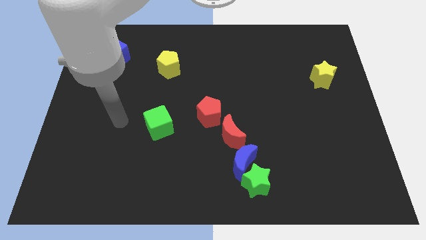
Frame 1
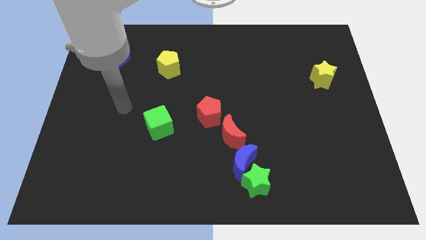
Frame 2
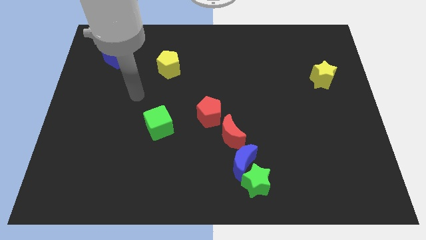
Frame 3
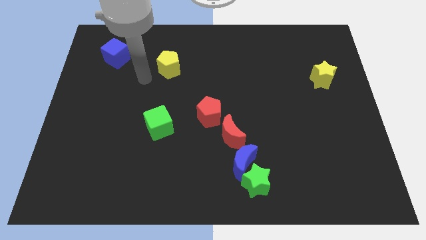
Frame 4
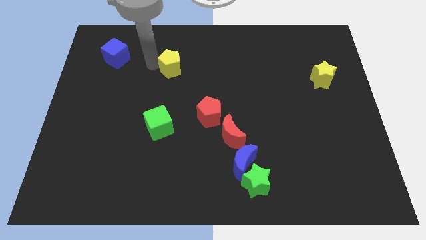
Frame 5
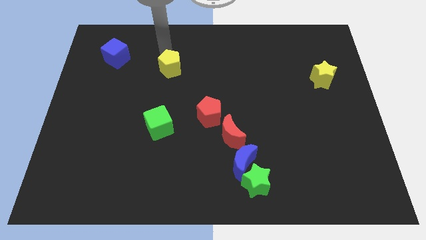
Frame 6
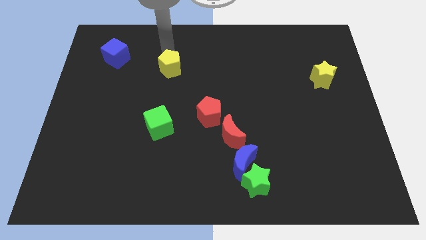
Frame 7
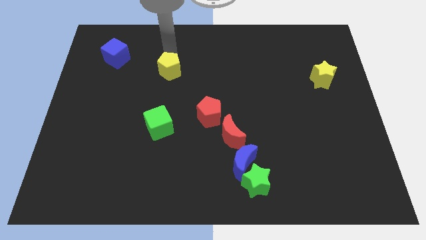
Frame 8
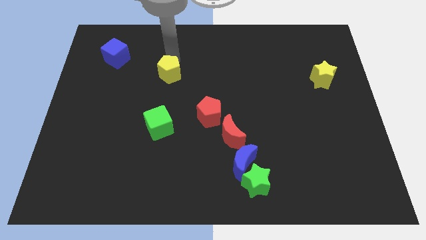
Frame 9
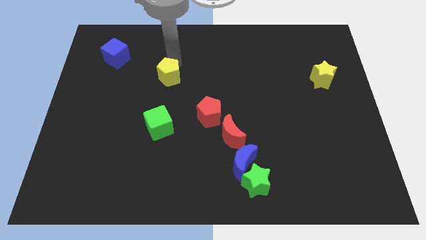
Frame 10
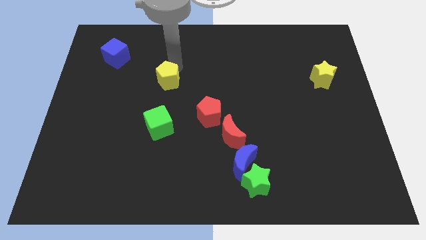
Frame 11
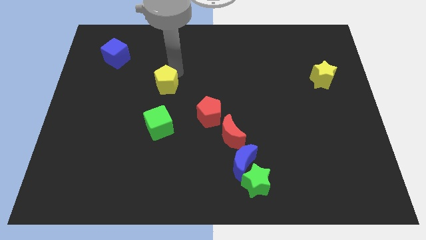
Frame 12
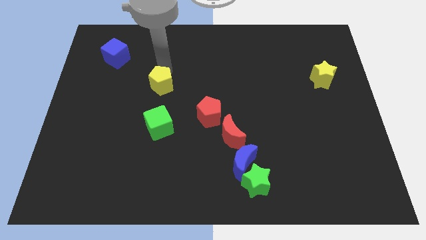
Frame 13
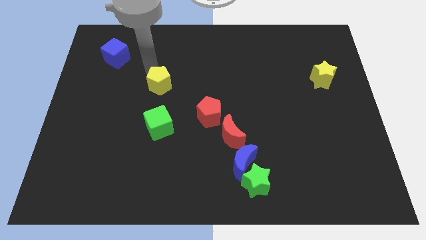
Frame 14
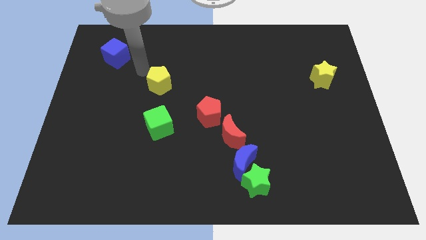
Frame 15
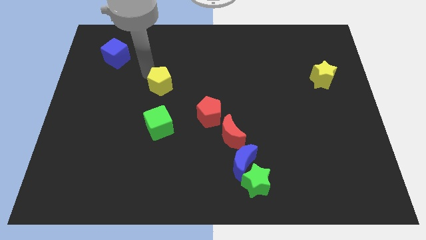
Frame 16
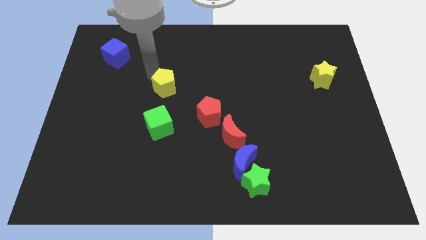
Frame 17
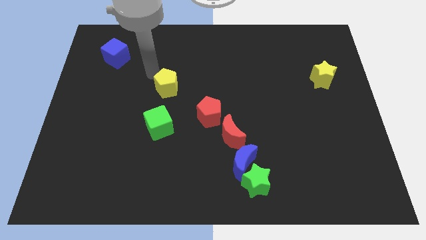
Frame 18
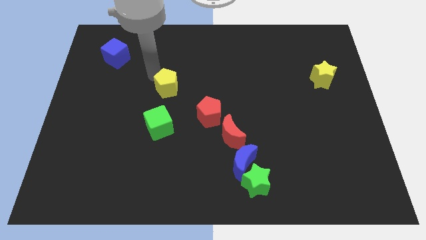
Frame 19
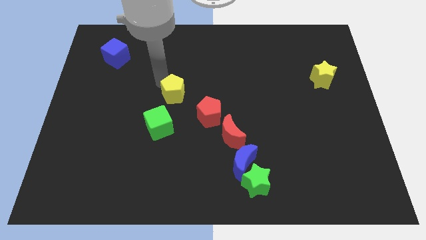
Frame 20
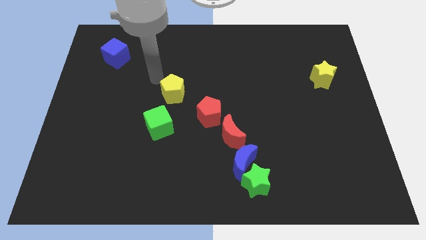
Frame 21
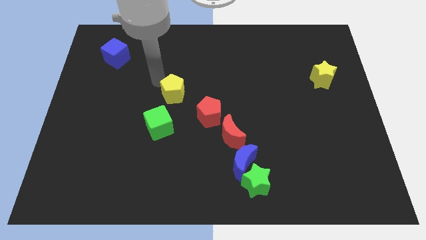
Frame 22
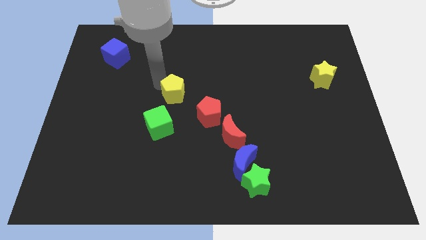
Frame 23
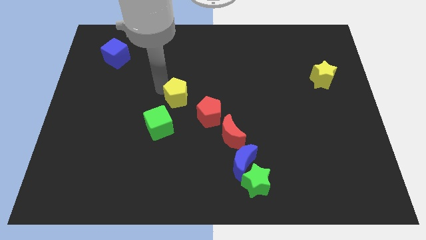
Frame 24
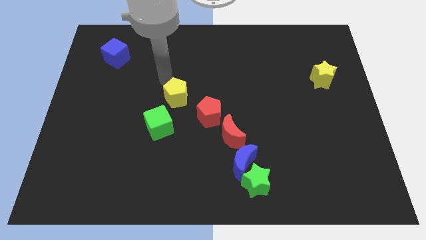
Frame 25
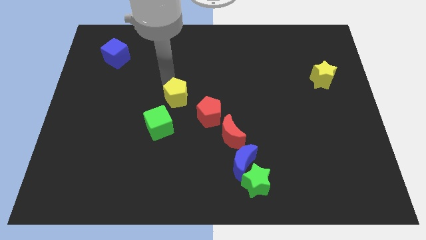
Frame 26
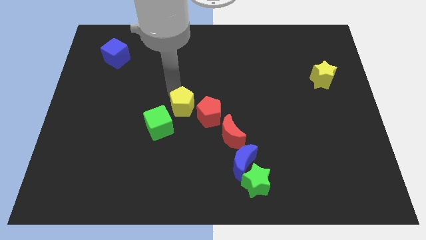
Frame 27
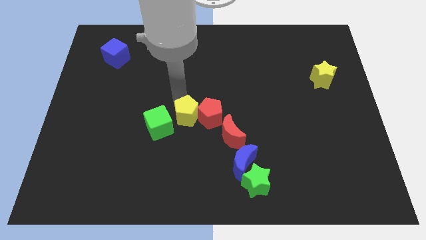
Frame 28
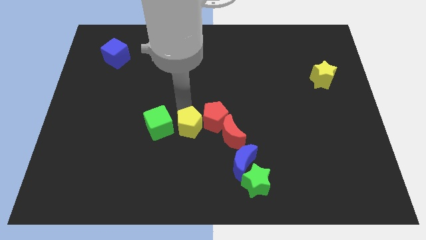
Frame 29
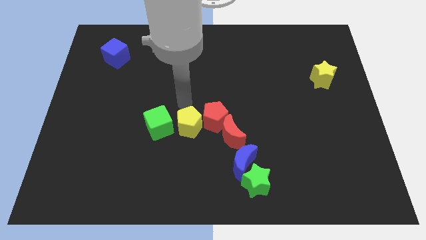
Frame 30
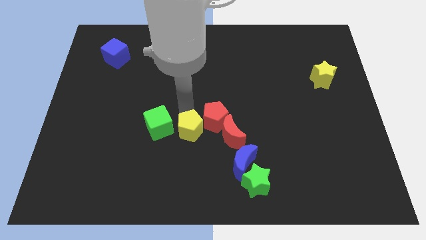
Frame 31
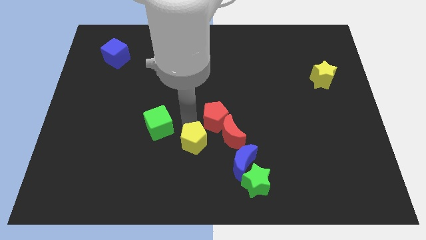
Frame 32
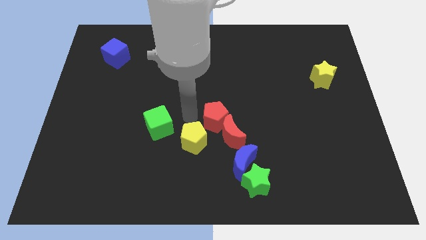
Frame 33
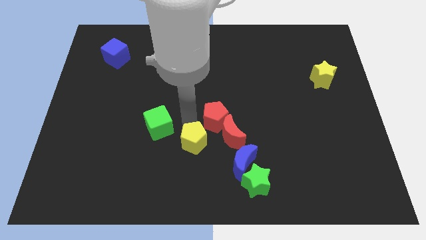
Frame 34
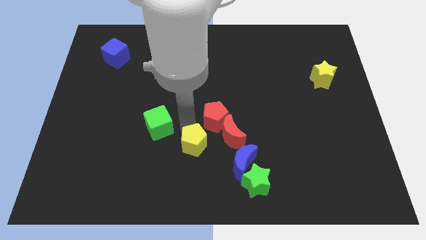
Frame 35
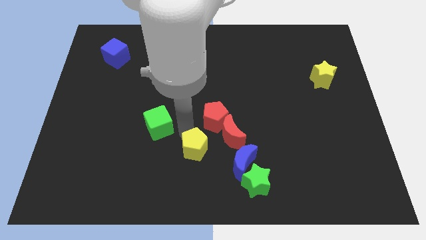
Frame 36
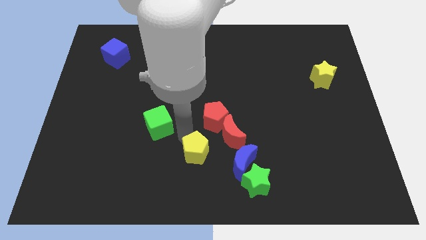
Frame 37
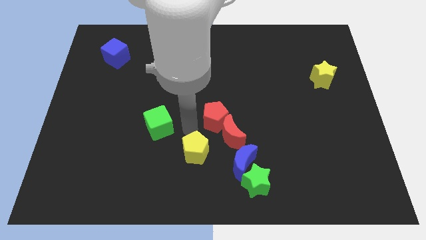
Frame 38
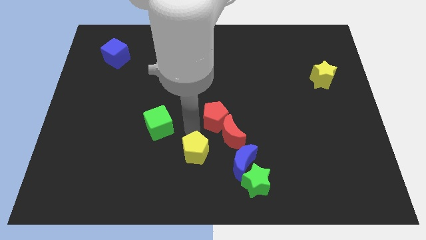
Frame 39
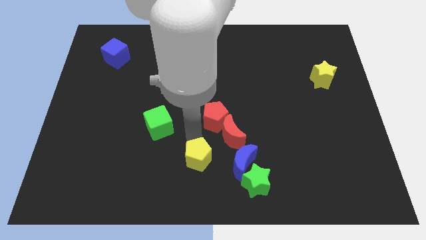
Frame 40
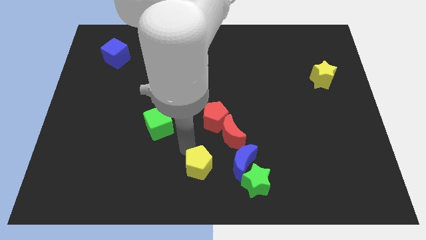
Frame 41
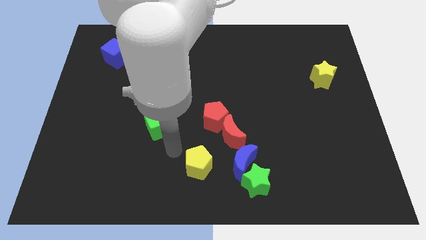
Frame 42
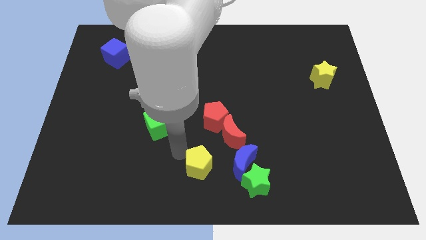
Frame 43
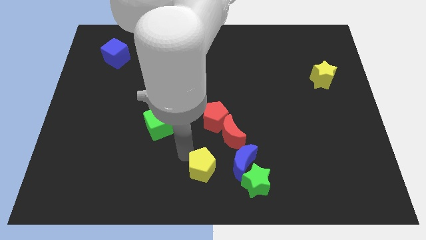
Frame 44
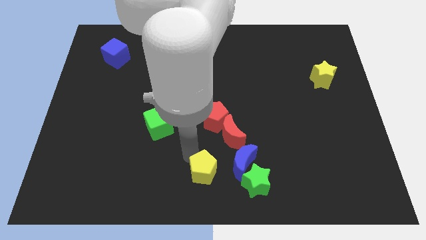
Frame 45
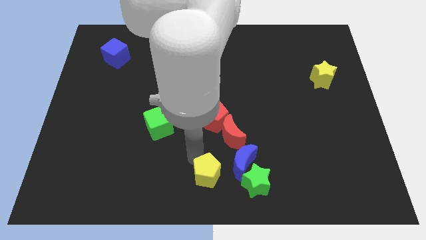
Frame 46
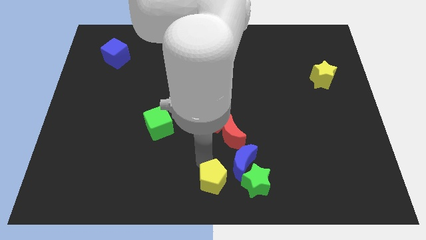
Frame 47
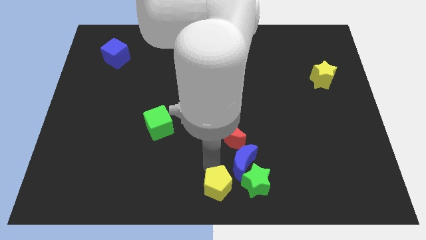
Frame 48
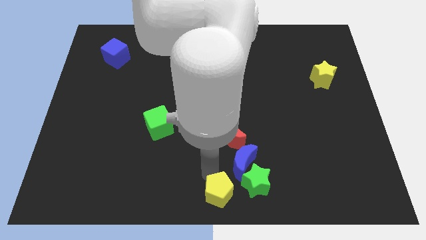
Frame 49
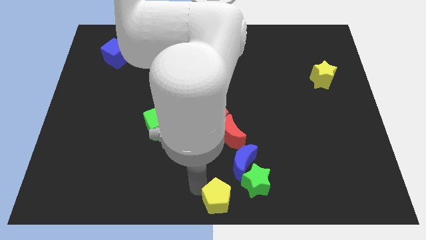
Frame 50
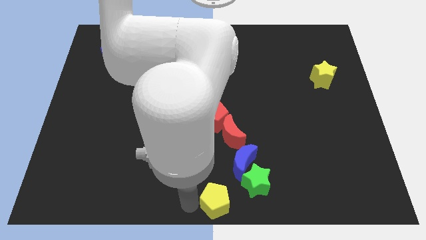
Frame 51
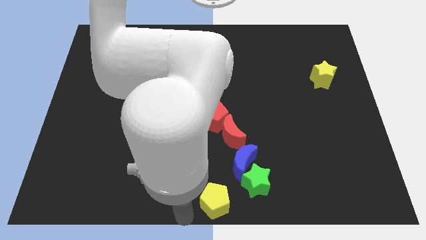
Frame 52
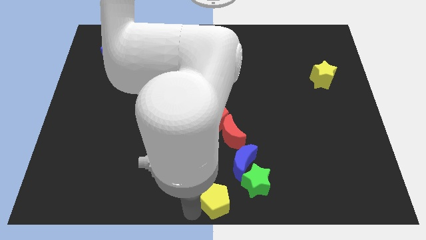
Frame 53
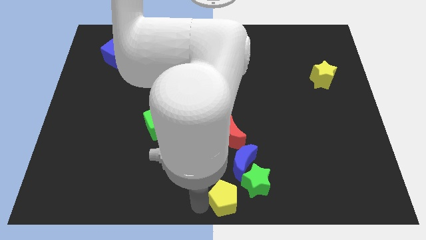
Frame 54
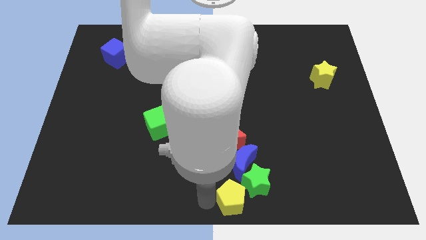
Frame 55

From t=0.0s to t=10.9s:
slide the yellow pentagon to the green star

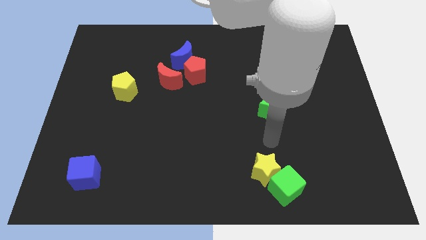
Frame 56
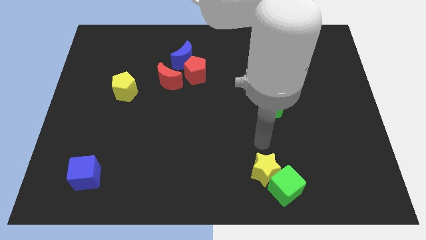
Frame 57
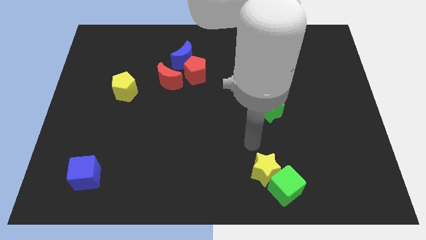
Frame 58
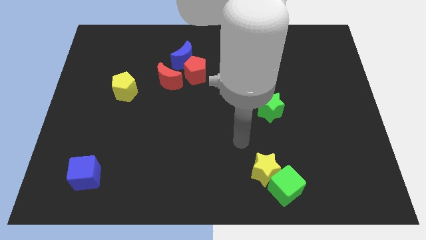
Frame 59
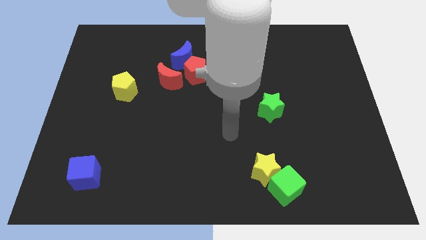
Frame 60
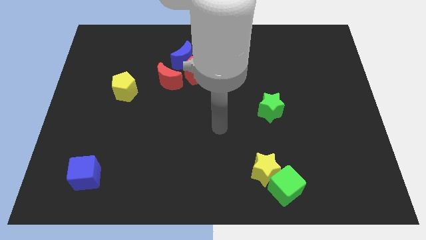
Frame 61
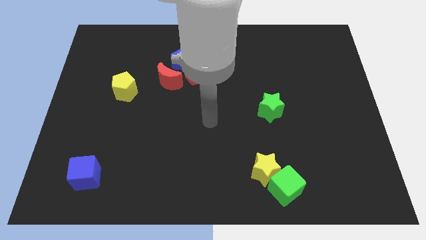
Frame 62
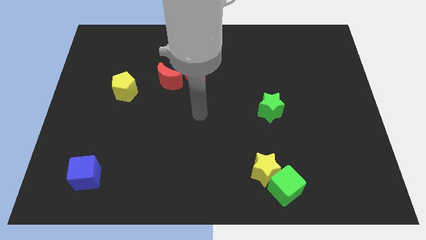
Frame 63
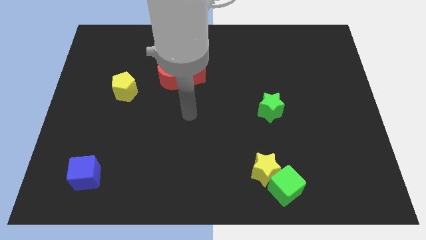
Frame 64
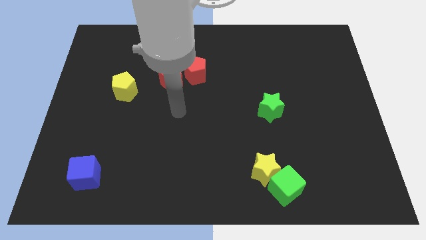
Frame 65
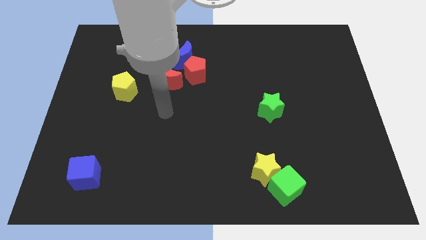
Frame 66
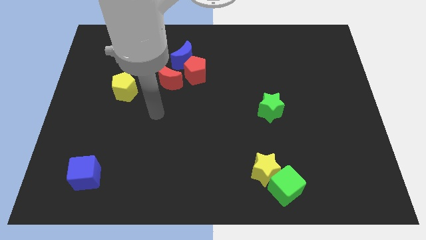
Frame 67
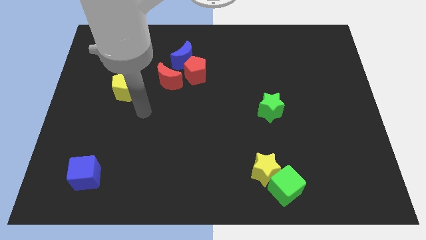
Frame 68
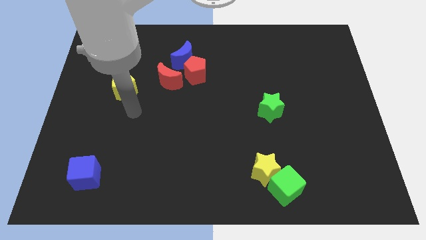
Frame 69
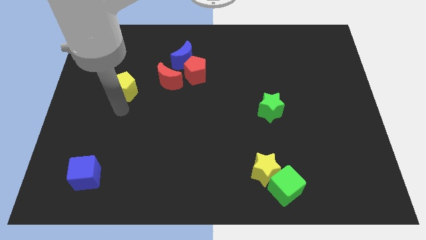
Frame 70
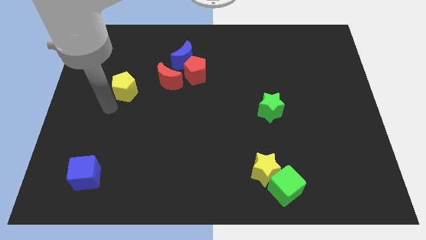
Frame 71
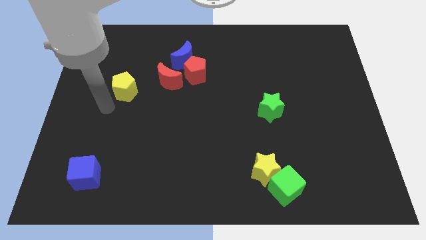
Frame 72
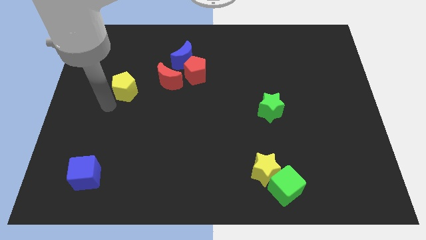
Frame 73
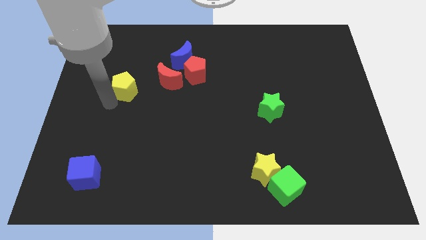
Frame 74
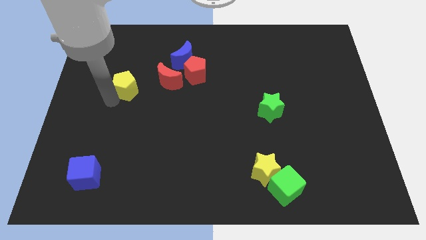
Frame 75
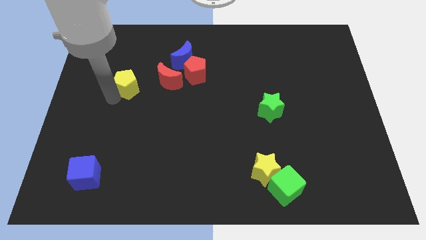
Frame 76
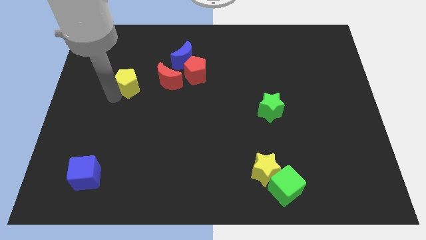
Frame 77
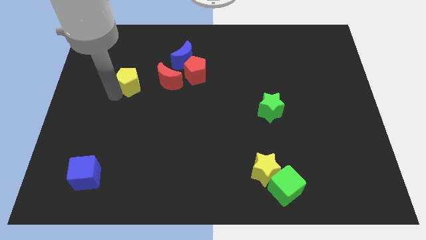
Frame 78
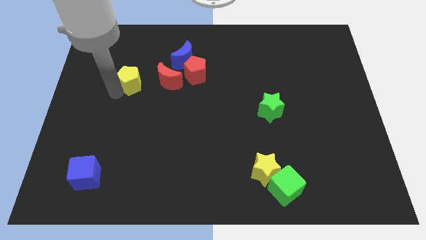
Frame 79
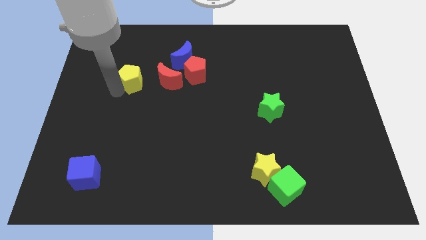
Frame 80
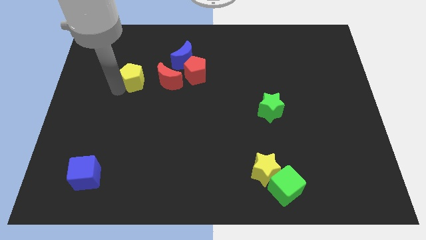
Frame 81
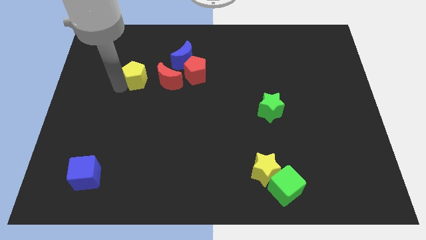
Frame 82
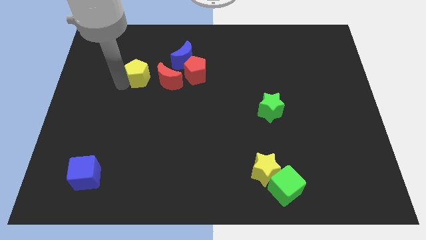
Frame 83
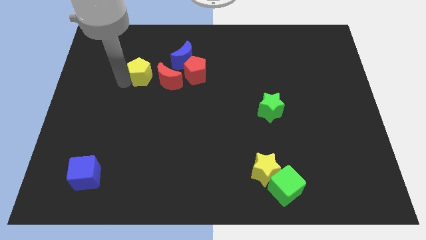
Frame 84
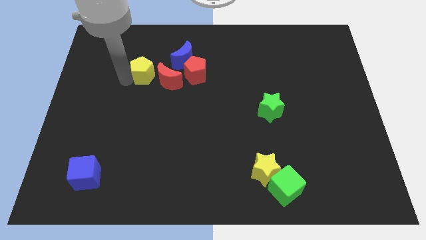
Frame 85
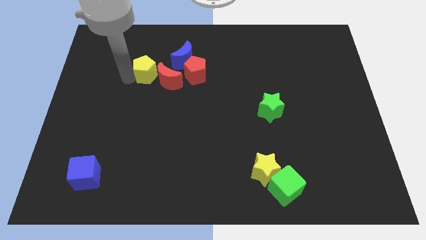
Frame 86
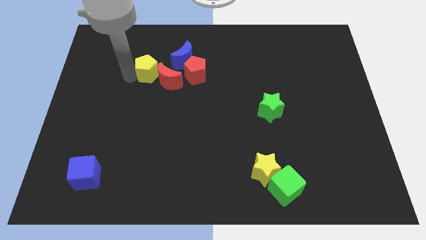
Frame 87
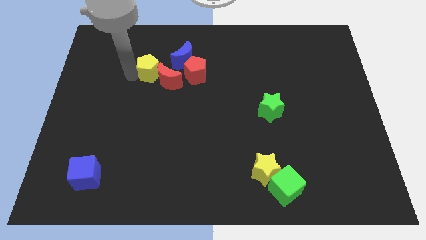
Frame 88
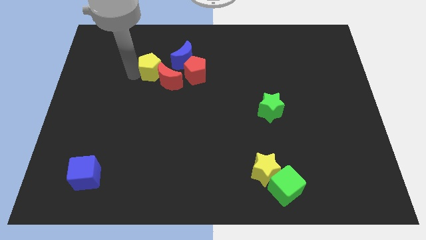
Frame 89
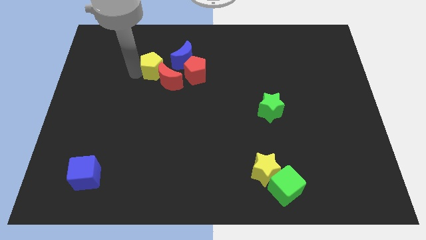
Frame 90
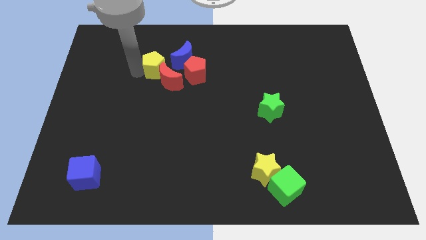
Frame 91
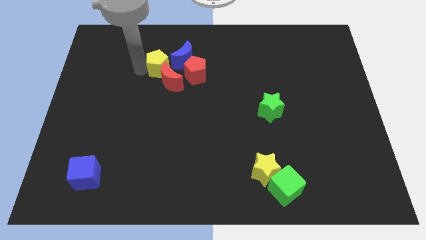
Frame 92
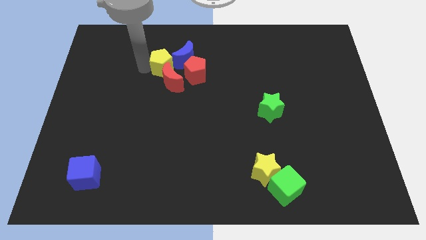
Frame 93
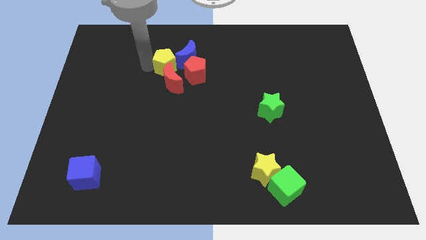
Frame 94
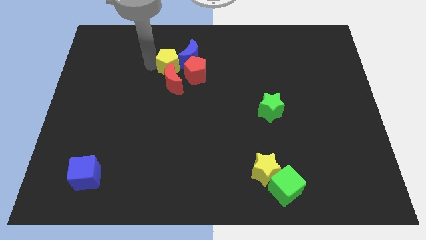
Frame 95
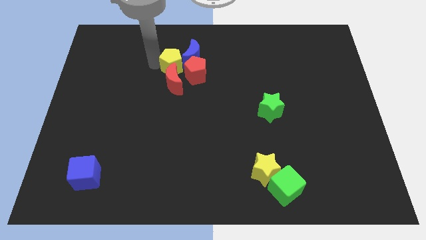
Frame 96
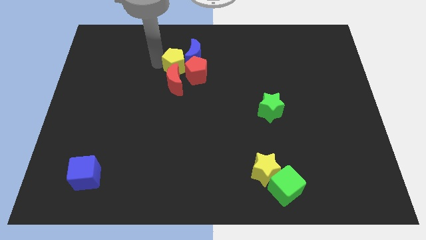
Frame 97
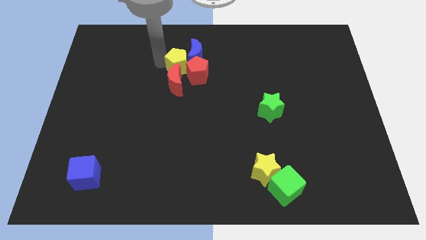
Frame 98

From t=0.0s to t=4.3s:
move the yellow pentagon close to the red pentagon
